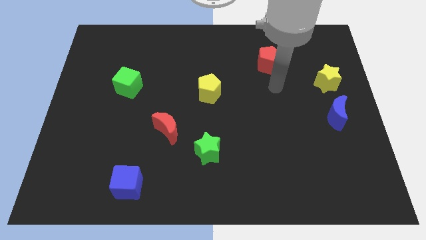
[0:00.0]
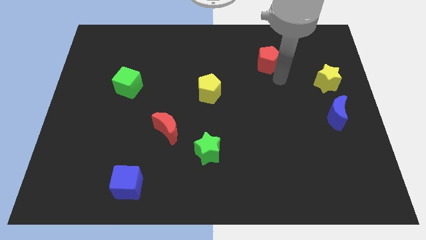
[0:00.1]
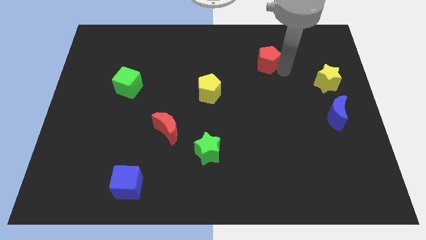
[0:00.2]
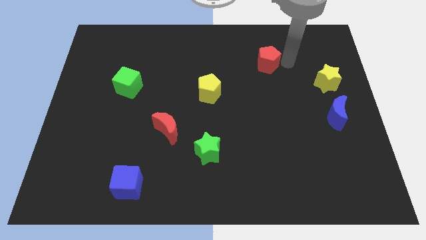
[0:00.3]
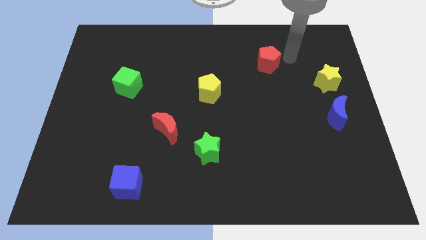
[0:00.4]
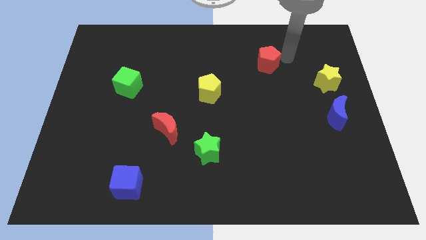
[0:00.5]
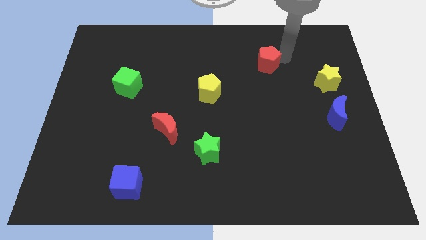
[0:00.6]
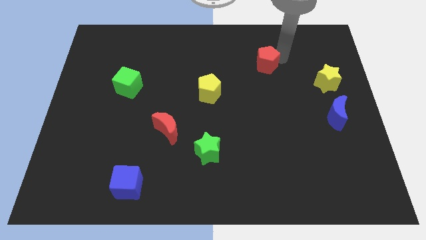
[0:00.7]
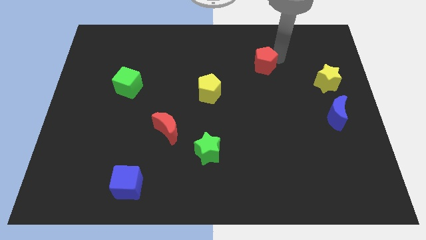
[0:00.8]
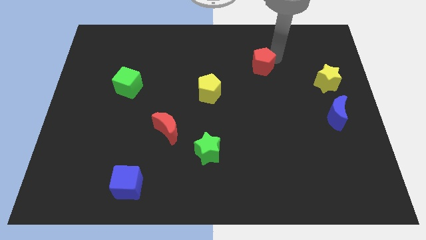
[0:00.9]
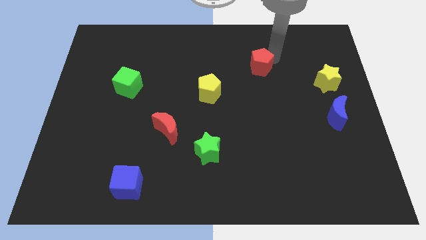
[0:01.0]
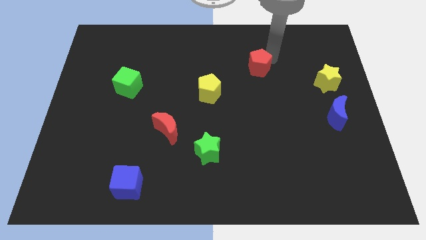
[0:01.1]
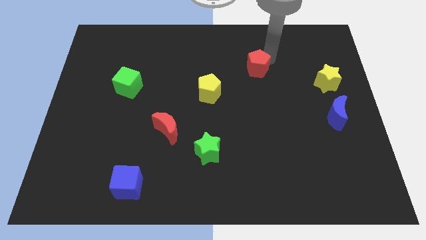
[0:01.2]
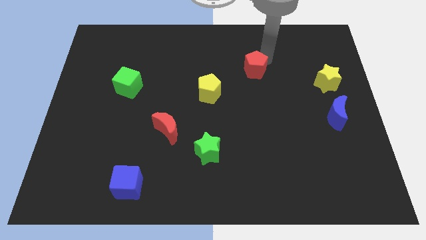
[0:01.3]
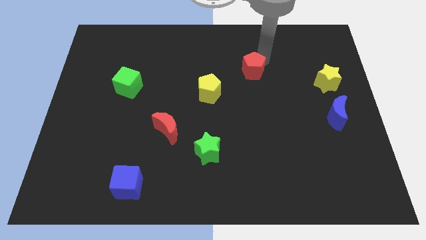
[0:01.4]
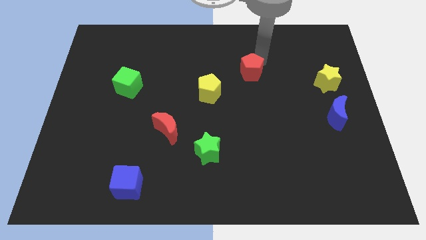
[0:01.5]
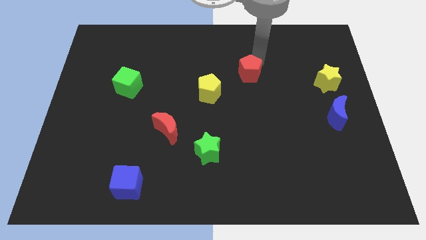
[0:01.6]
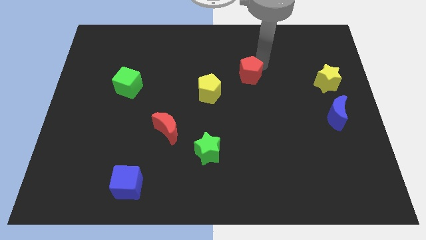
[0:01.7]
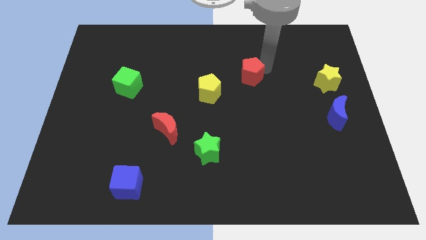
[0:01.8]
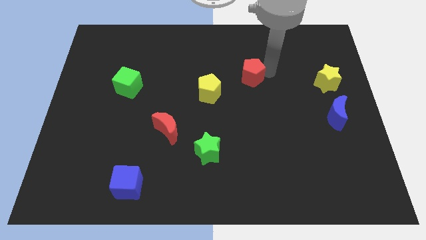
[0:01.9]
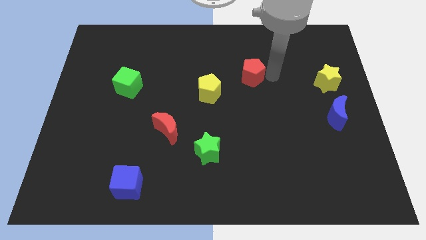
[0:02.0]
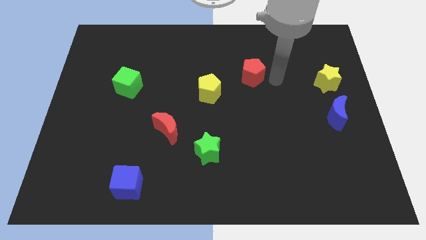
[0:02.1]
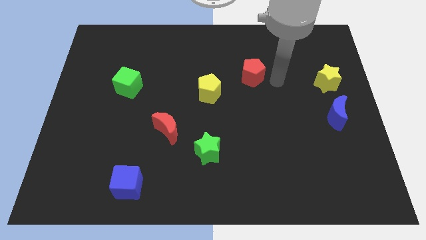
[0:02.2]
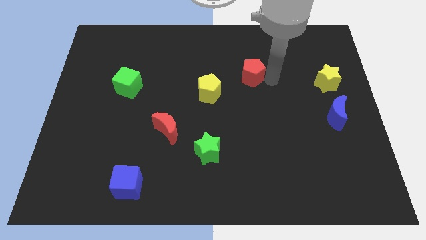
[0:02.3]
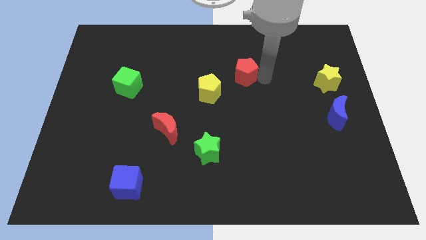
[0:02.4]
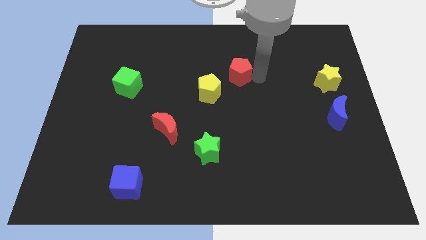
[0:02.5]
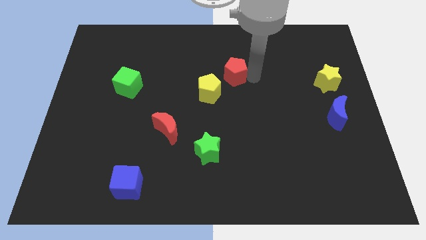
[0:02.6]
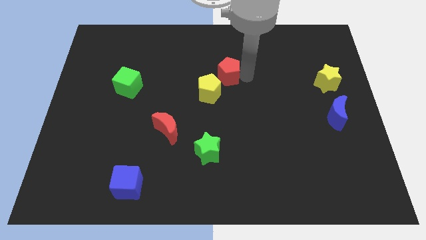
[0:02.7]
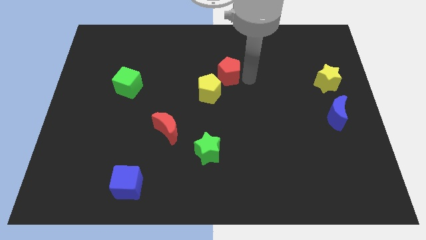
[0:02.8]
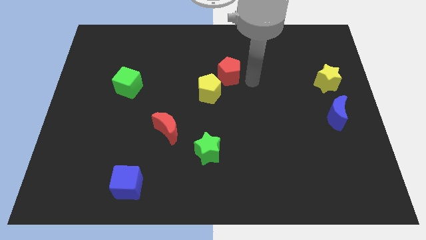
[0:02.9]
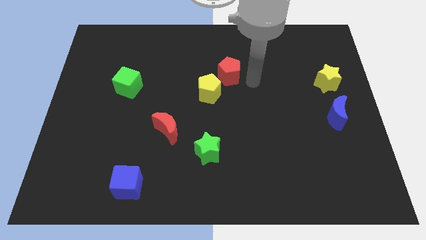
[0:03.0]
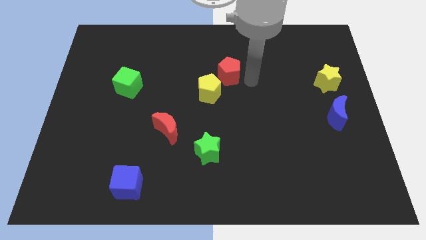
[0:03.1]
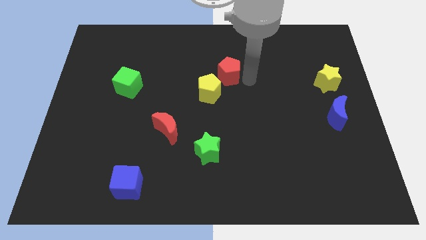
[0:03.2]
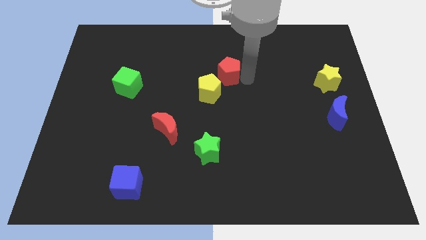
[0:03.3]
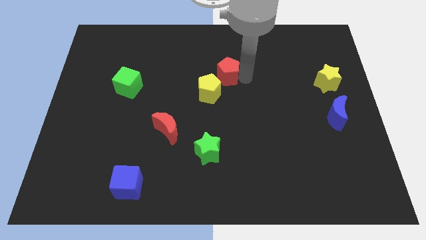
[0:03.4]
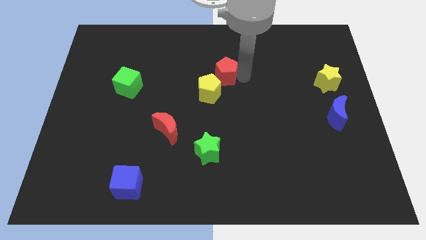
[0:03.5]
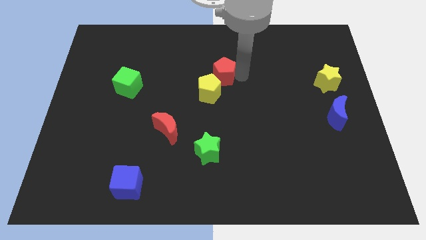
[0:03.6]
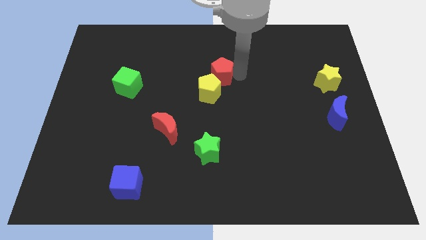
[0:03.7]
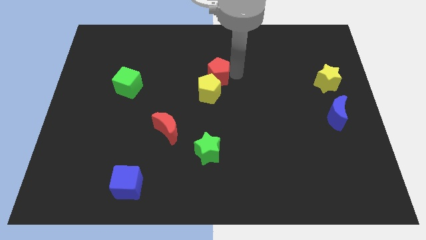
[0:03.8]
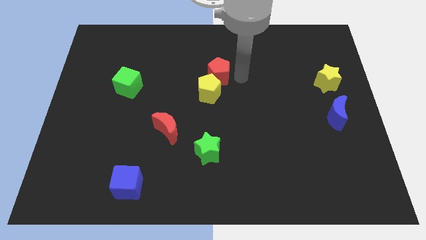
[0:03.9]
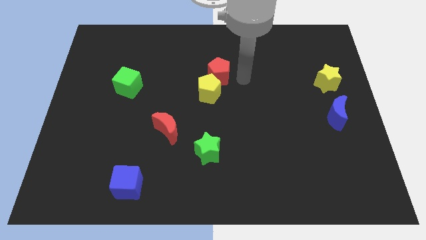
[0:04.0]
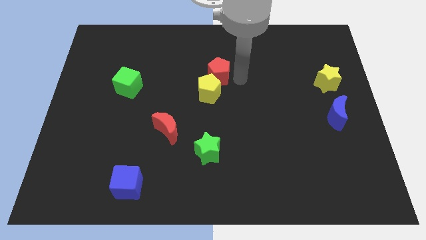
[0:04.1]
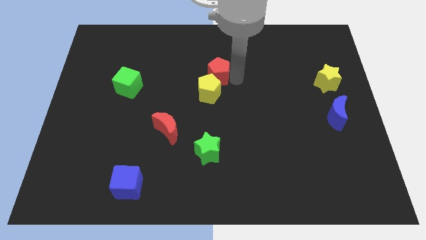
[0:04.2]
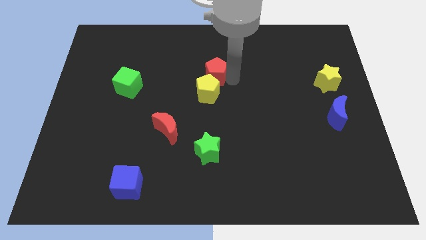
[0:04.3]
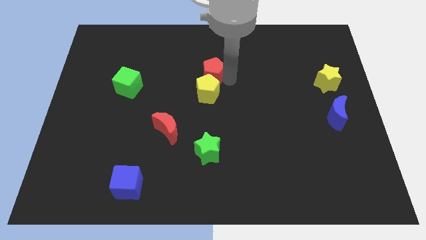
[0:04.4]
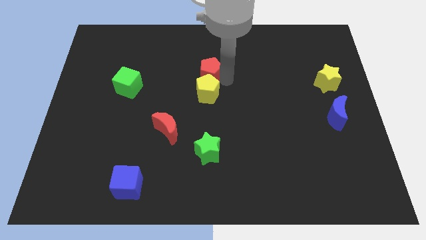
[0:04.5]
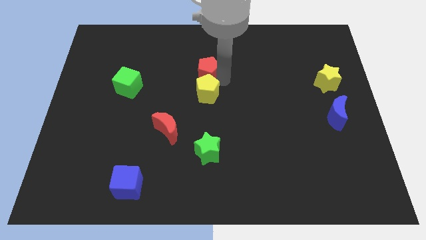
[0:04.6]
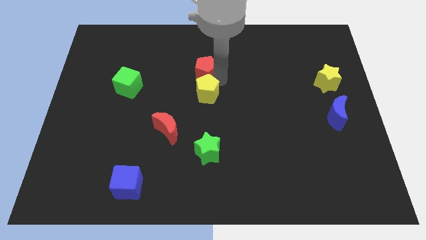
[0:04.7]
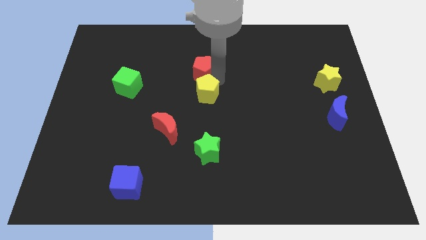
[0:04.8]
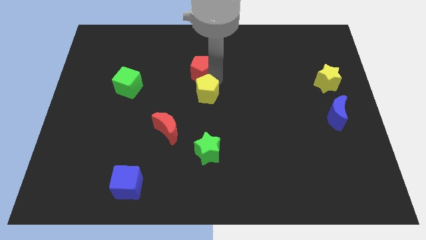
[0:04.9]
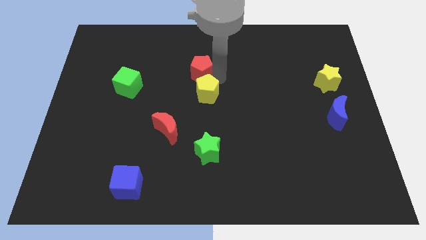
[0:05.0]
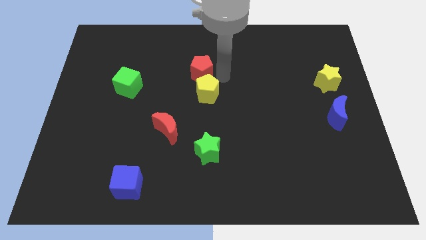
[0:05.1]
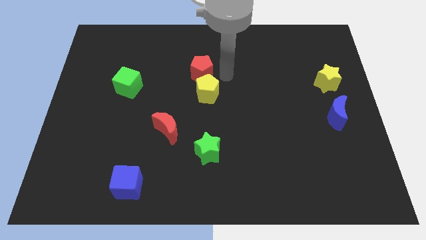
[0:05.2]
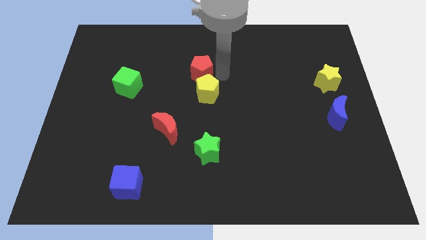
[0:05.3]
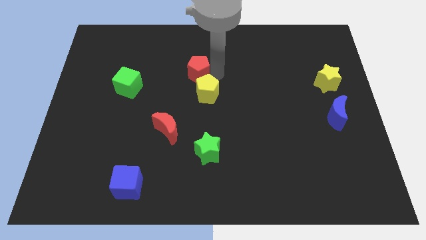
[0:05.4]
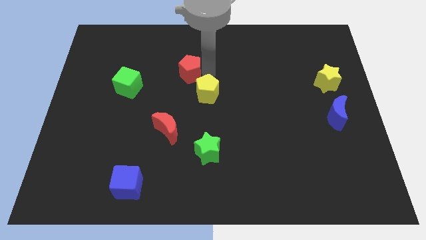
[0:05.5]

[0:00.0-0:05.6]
slide the red pentagon to the left

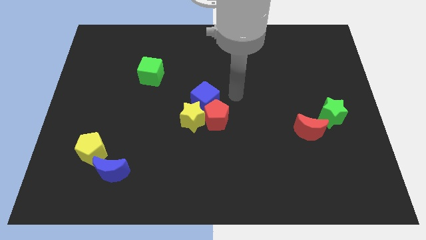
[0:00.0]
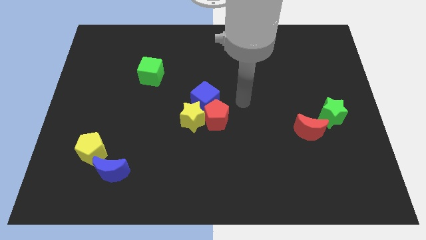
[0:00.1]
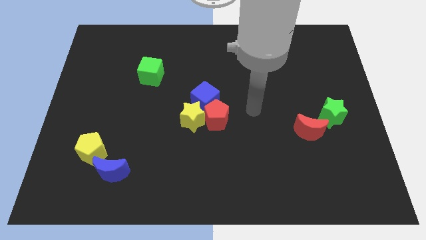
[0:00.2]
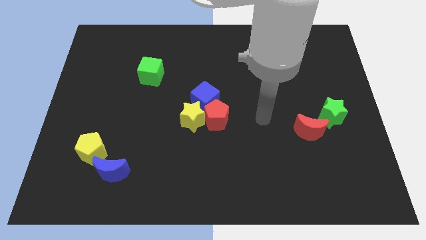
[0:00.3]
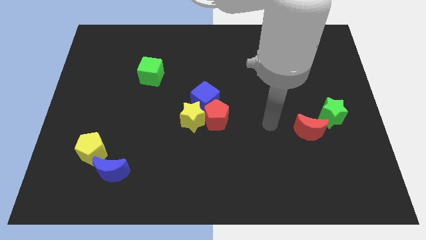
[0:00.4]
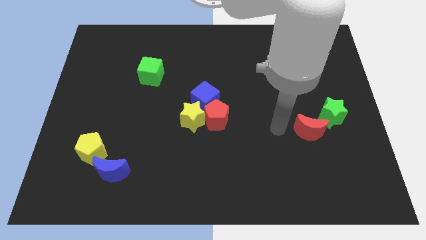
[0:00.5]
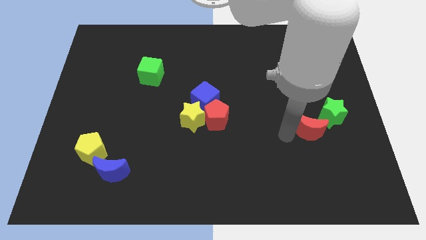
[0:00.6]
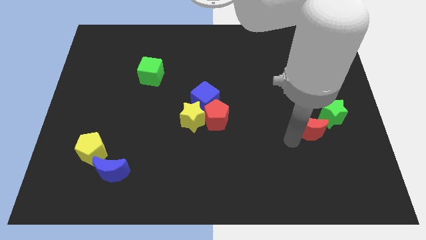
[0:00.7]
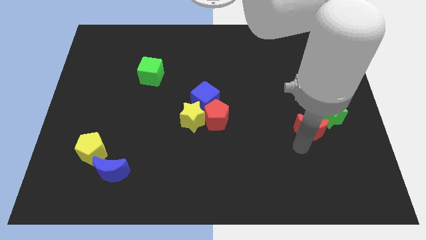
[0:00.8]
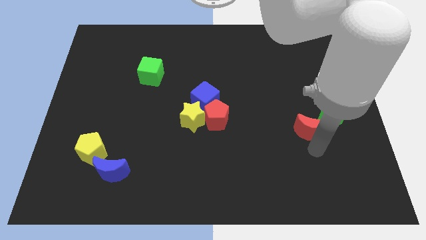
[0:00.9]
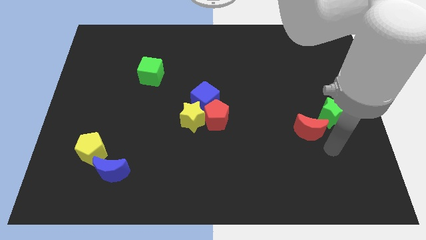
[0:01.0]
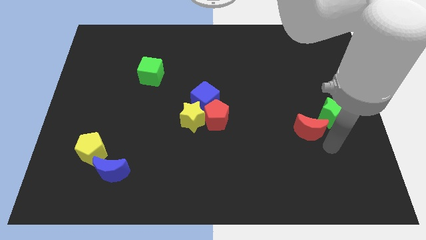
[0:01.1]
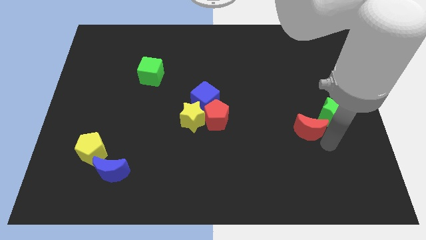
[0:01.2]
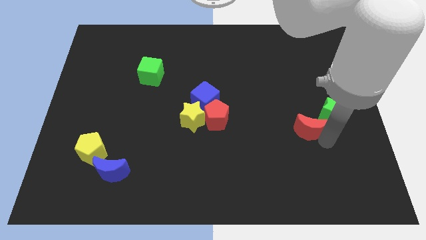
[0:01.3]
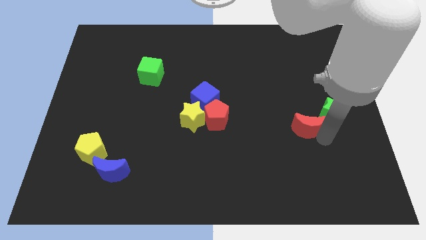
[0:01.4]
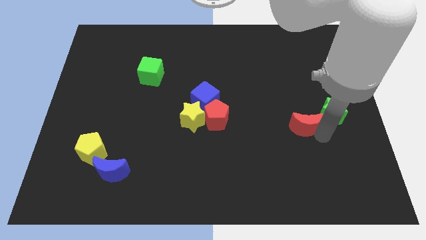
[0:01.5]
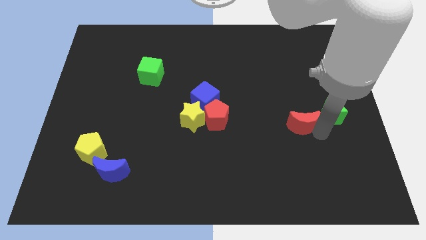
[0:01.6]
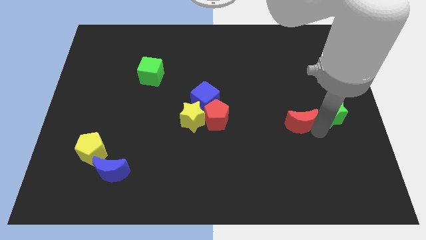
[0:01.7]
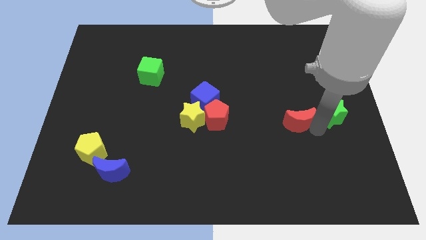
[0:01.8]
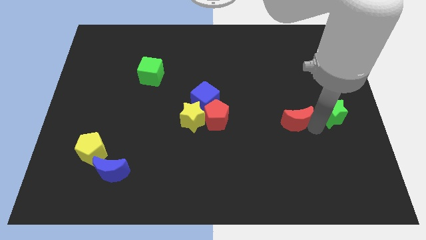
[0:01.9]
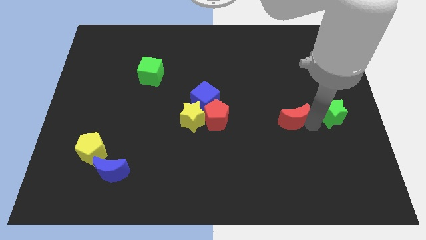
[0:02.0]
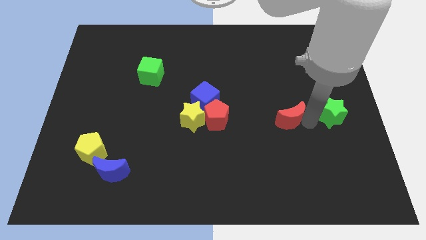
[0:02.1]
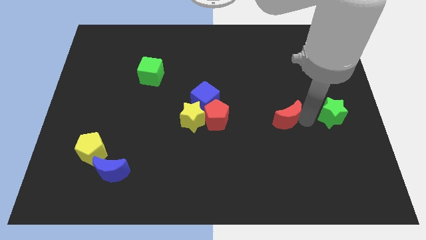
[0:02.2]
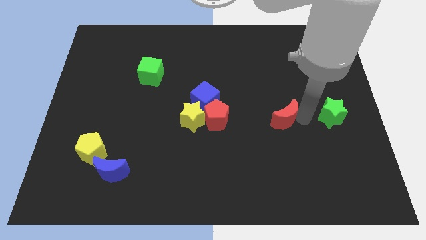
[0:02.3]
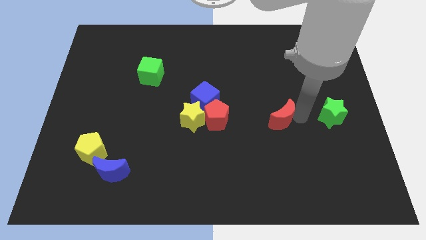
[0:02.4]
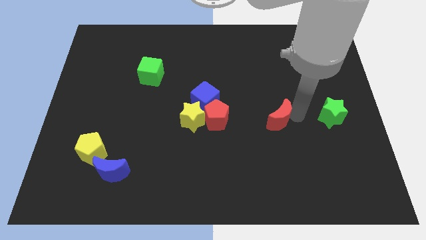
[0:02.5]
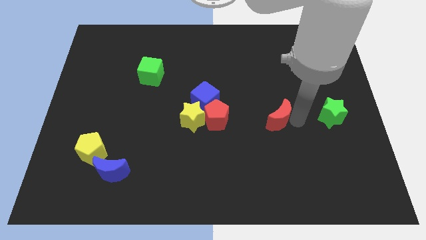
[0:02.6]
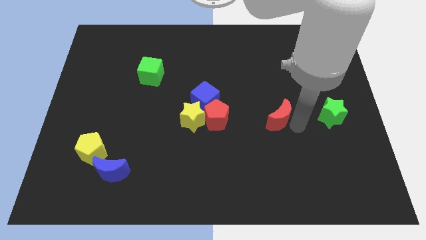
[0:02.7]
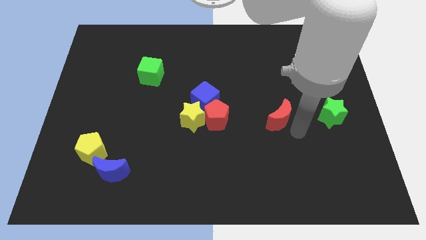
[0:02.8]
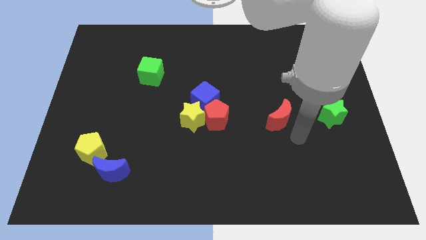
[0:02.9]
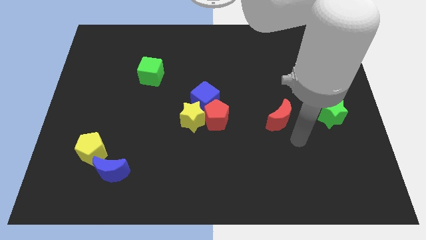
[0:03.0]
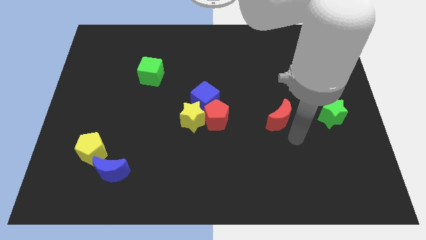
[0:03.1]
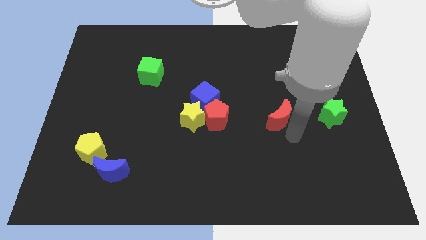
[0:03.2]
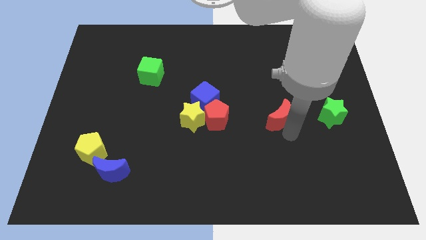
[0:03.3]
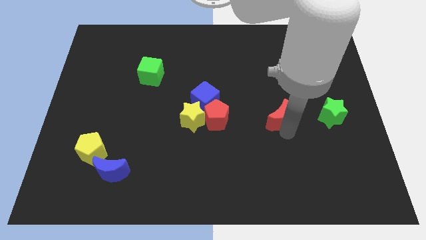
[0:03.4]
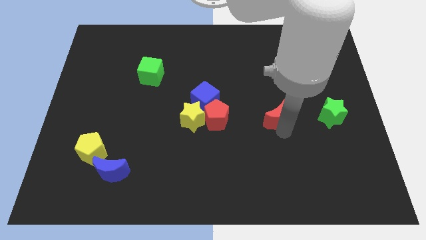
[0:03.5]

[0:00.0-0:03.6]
move the red moon up and to the left diagonally a little
